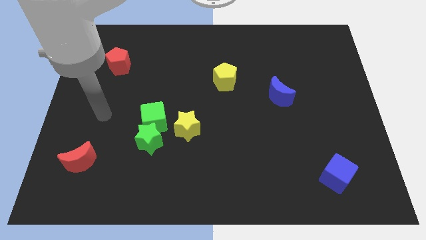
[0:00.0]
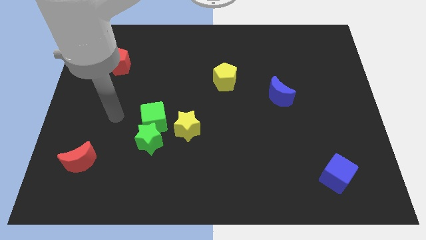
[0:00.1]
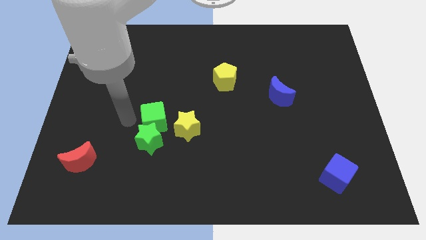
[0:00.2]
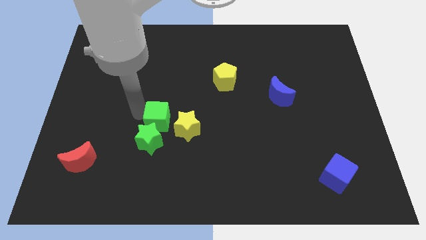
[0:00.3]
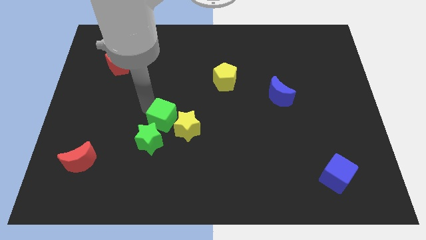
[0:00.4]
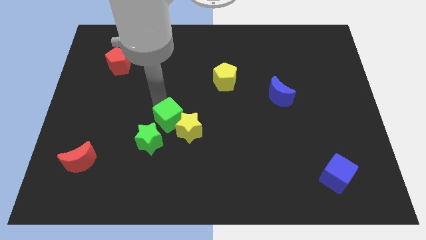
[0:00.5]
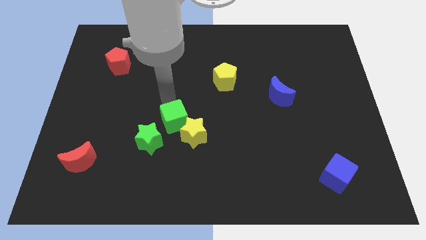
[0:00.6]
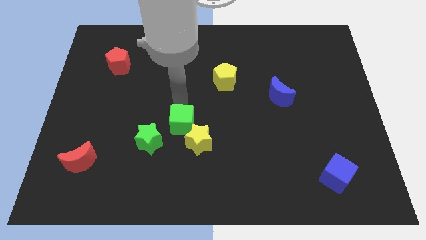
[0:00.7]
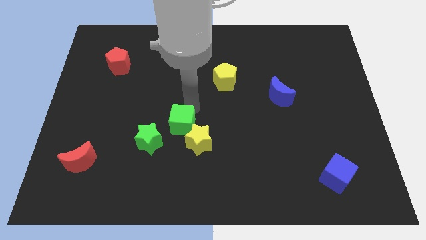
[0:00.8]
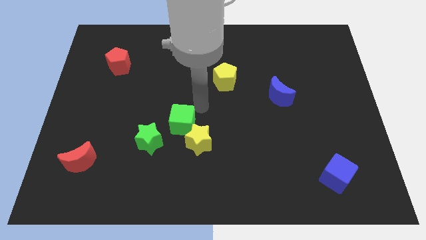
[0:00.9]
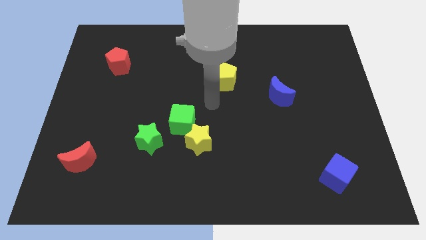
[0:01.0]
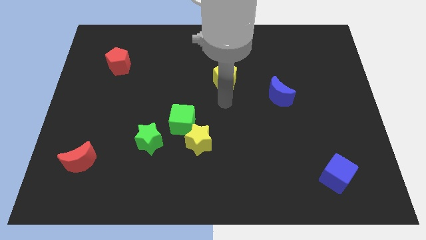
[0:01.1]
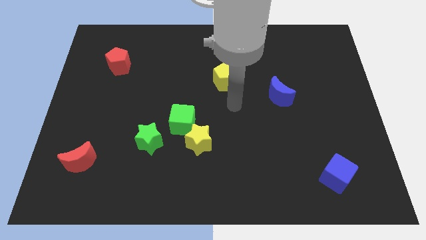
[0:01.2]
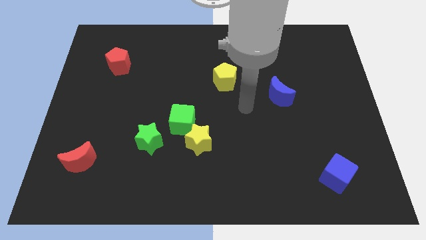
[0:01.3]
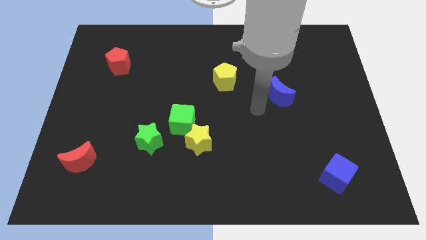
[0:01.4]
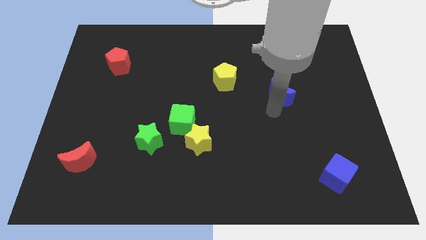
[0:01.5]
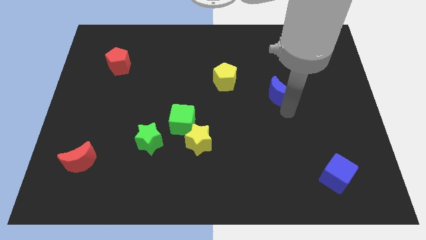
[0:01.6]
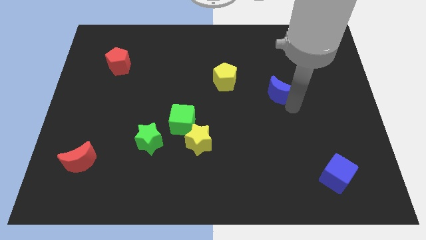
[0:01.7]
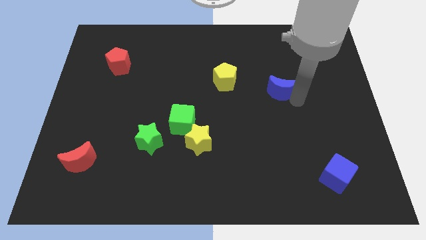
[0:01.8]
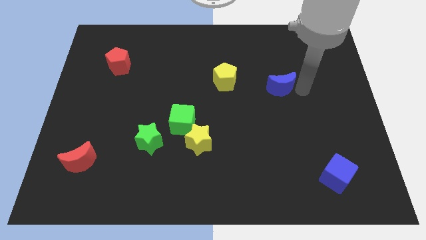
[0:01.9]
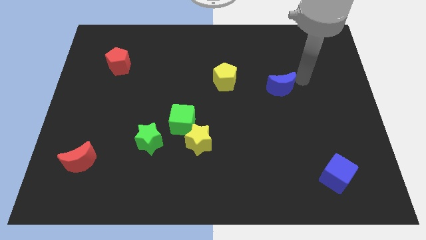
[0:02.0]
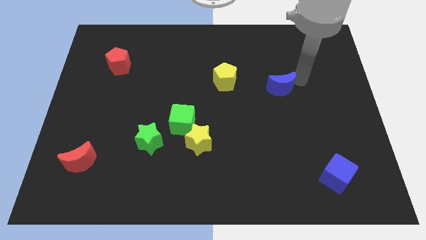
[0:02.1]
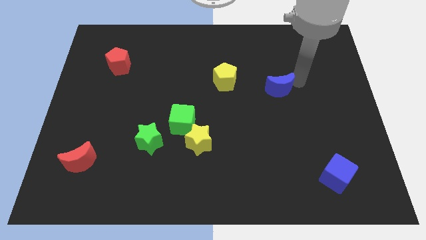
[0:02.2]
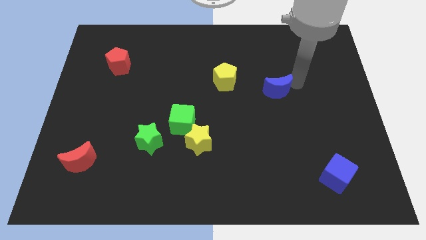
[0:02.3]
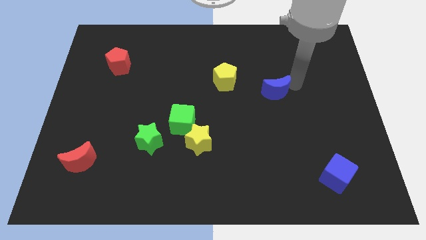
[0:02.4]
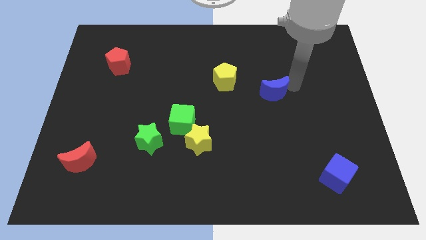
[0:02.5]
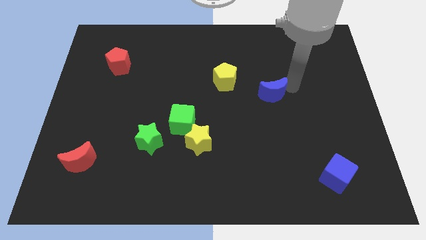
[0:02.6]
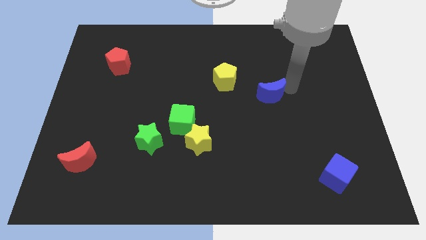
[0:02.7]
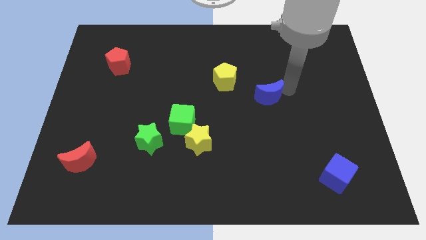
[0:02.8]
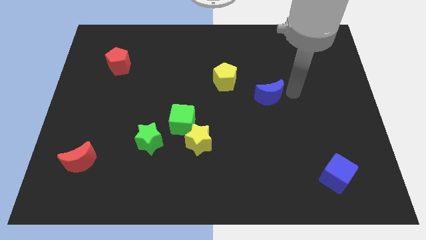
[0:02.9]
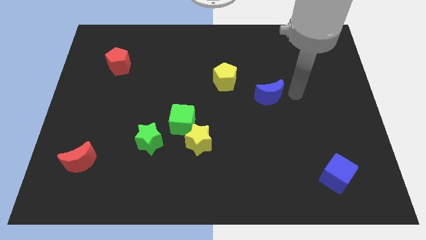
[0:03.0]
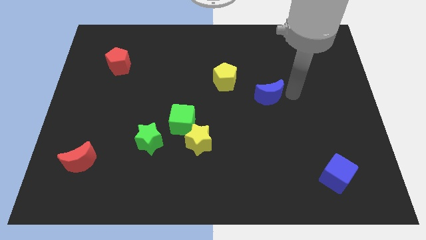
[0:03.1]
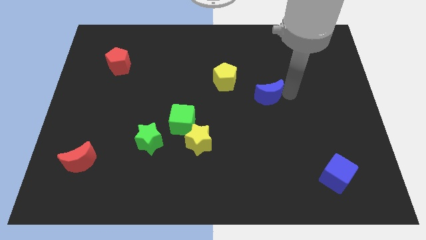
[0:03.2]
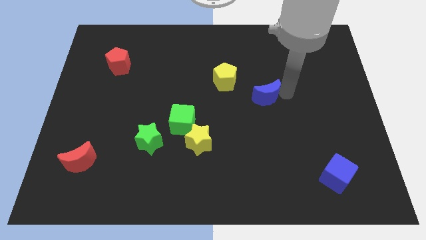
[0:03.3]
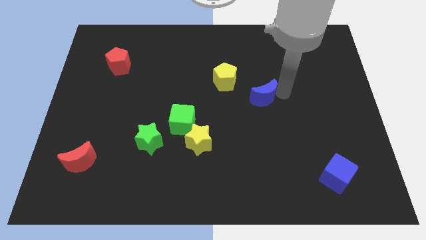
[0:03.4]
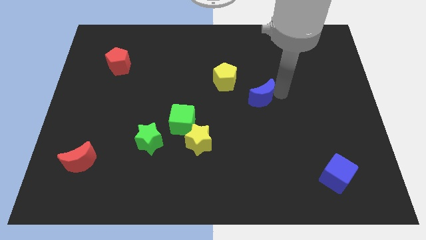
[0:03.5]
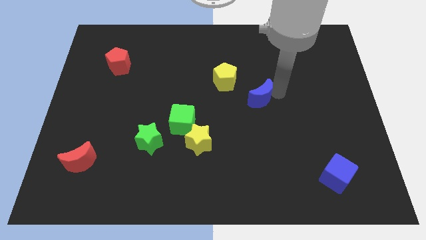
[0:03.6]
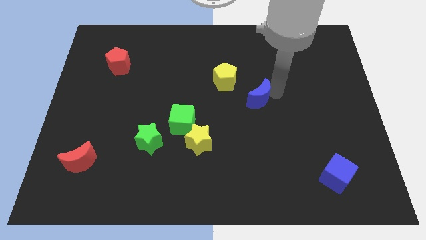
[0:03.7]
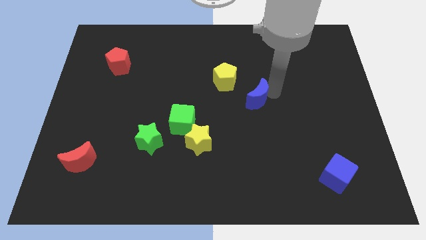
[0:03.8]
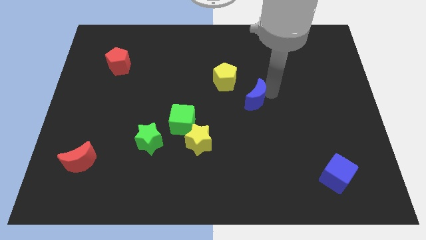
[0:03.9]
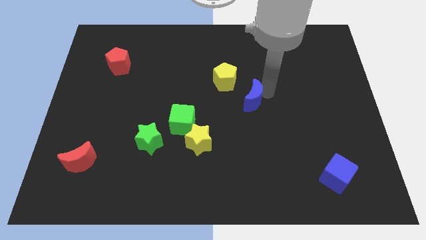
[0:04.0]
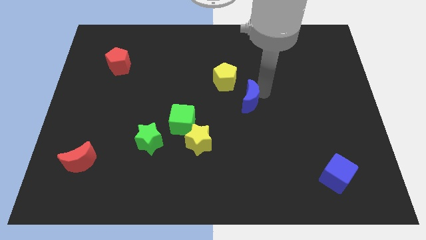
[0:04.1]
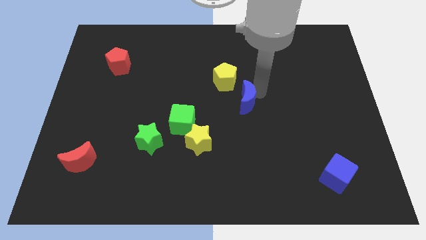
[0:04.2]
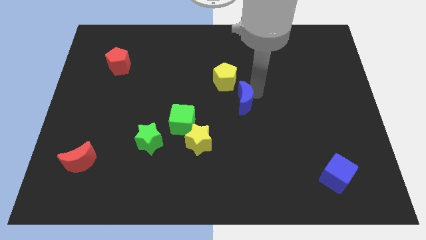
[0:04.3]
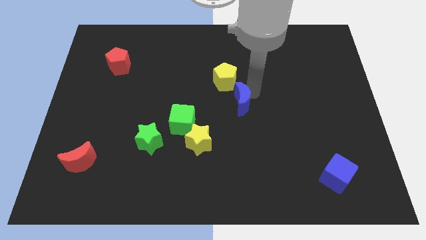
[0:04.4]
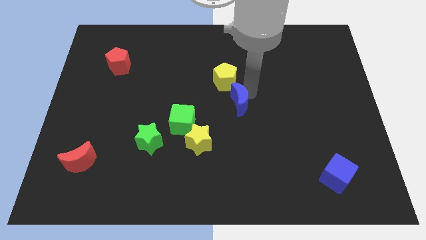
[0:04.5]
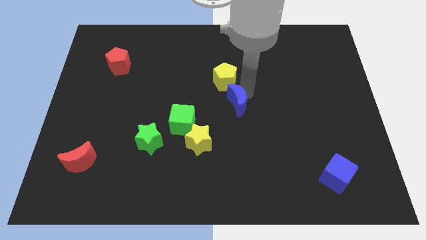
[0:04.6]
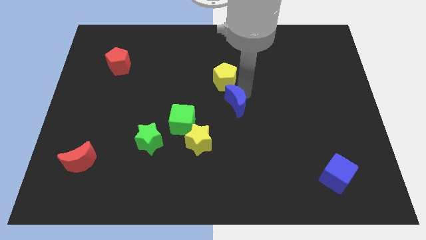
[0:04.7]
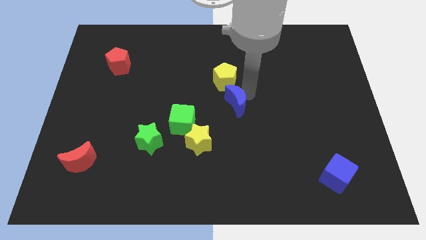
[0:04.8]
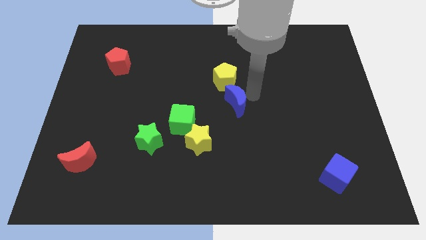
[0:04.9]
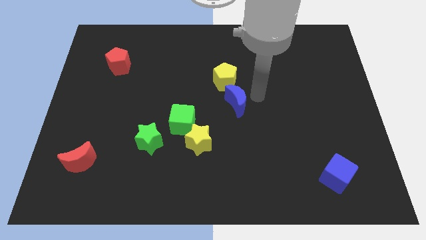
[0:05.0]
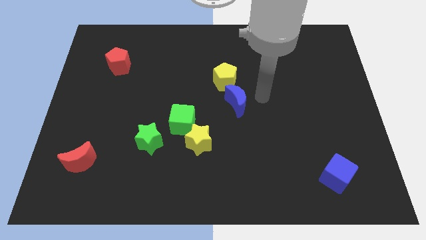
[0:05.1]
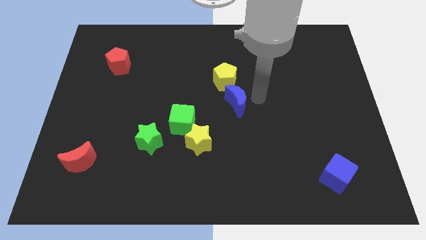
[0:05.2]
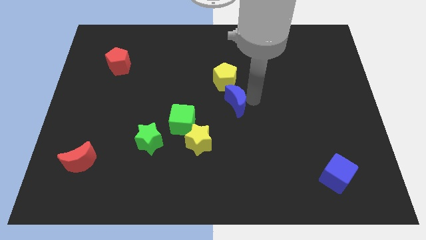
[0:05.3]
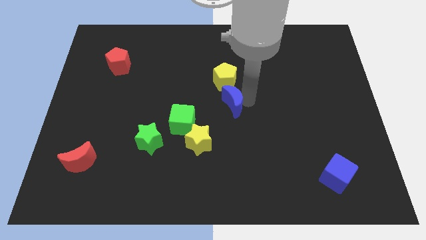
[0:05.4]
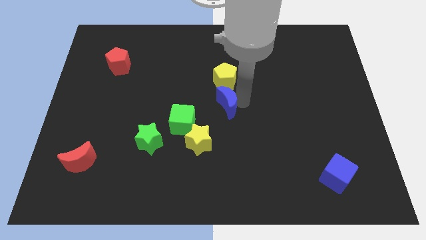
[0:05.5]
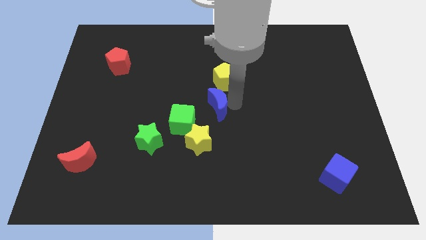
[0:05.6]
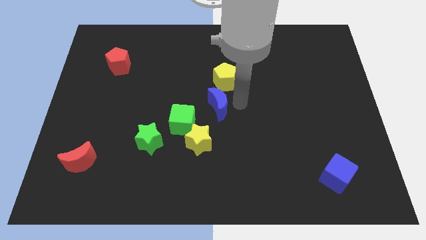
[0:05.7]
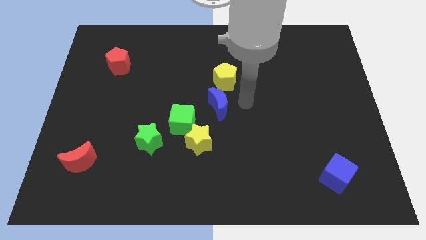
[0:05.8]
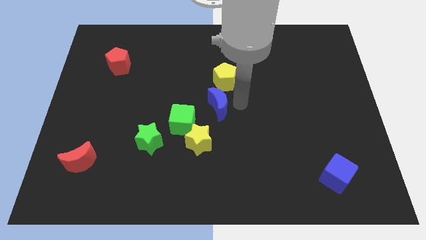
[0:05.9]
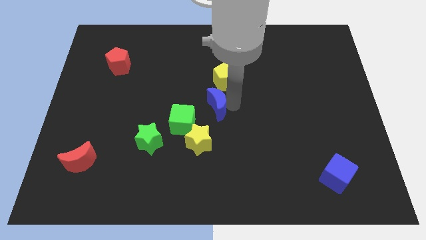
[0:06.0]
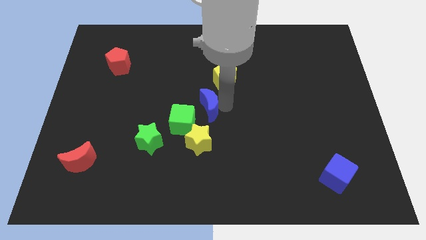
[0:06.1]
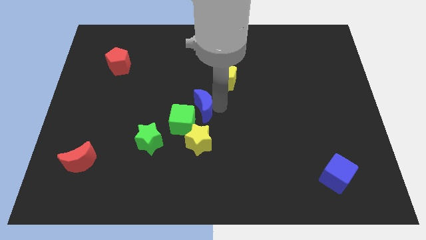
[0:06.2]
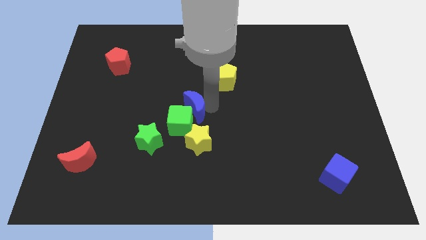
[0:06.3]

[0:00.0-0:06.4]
push the blue moon next to the green cube

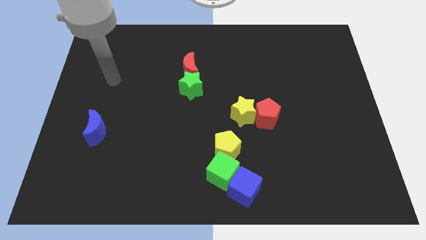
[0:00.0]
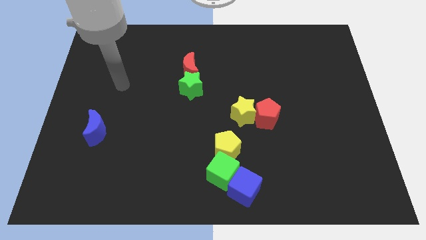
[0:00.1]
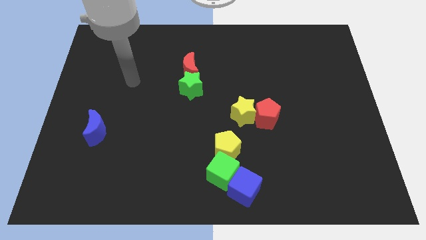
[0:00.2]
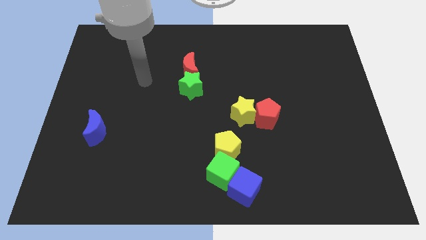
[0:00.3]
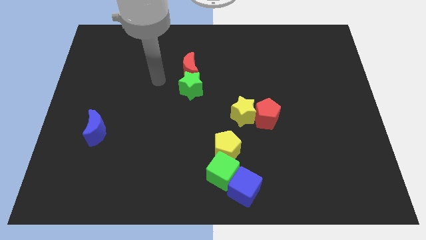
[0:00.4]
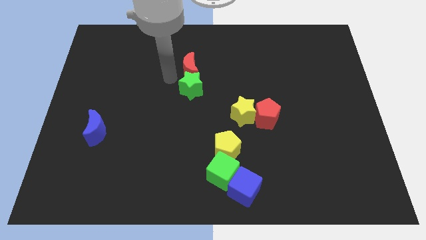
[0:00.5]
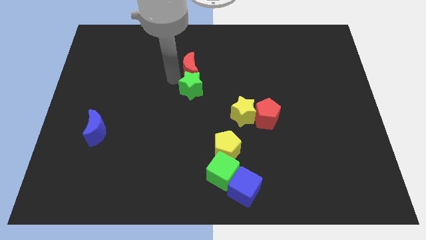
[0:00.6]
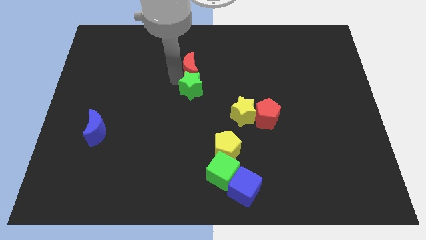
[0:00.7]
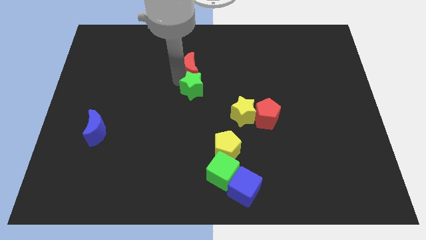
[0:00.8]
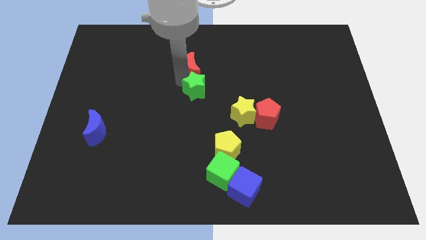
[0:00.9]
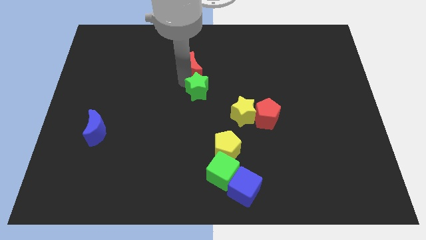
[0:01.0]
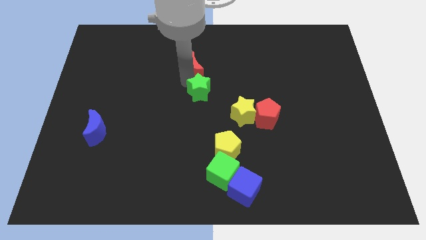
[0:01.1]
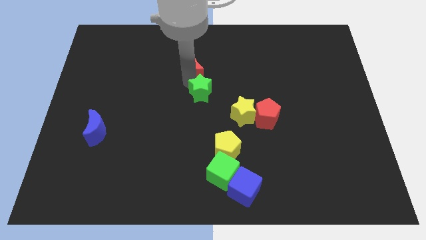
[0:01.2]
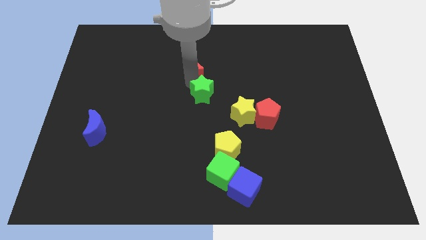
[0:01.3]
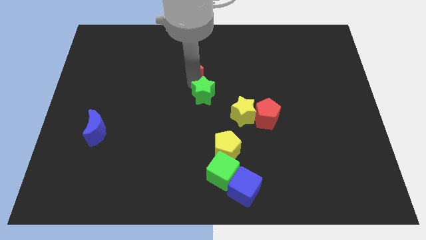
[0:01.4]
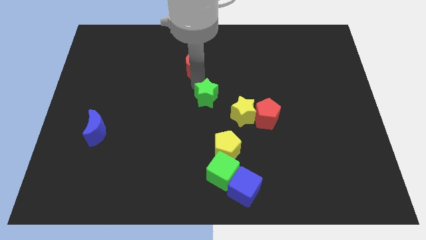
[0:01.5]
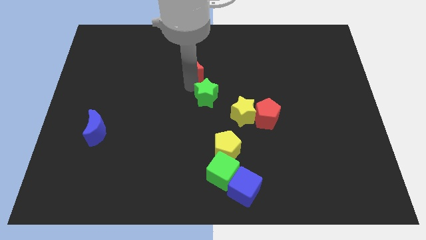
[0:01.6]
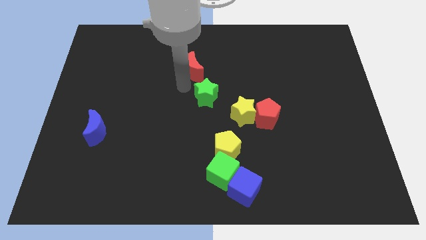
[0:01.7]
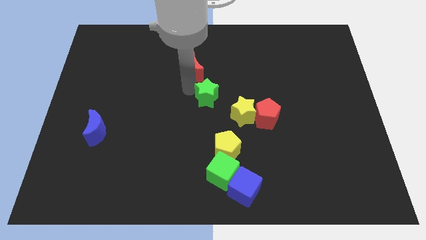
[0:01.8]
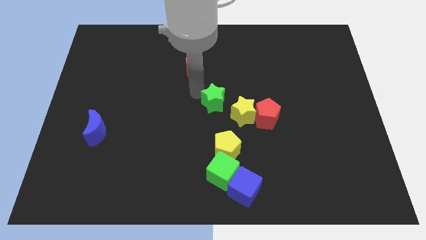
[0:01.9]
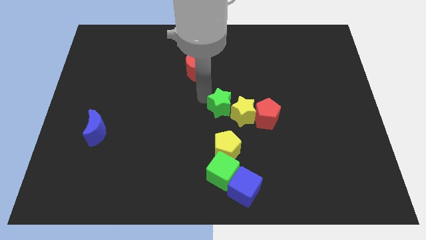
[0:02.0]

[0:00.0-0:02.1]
move the green star to the yellow star
